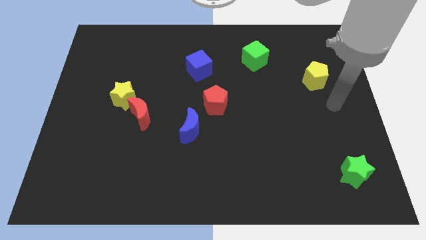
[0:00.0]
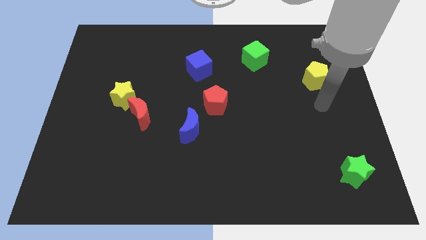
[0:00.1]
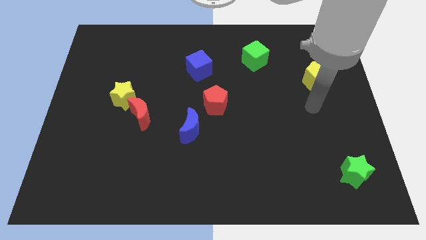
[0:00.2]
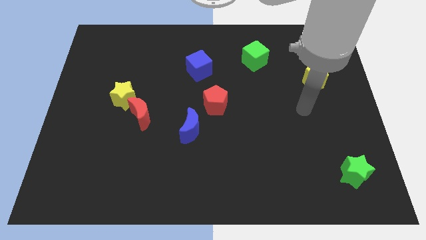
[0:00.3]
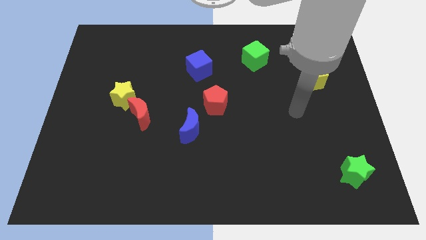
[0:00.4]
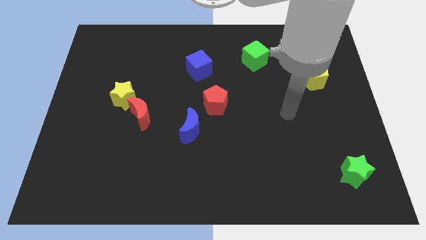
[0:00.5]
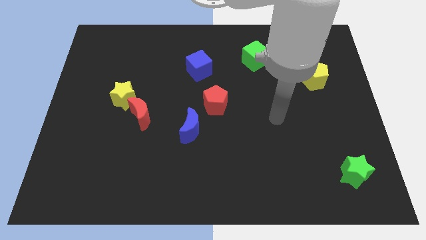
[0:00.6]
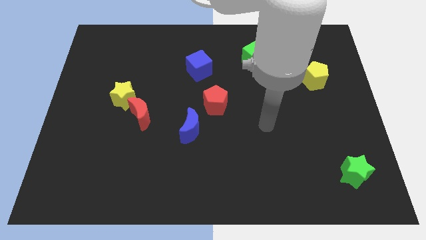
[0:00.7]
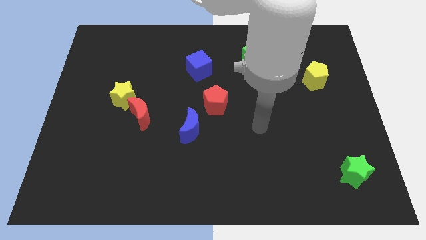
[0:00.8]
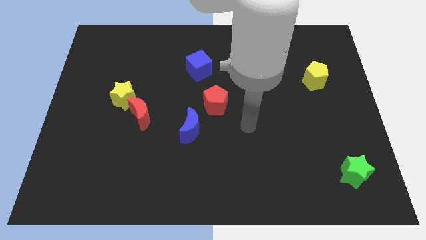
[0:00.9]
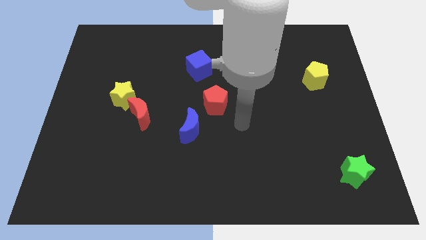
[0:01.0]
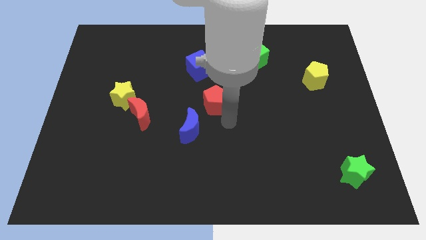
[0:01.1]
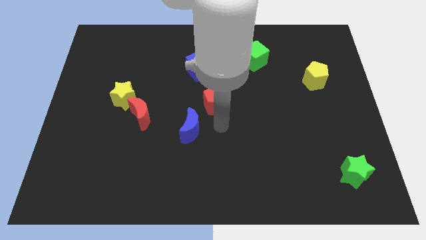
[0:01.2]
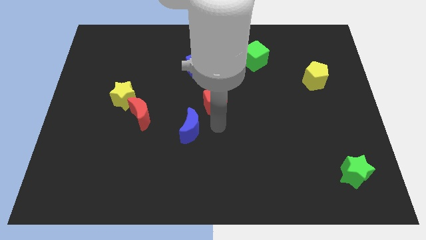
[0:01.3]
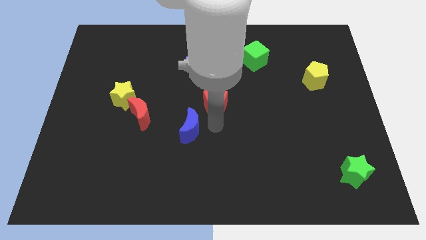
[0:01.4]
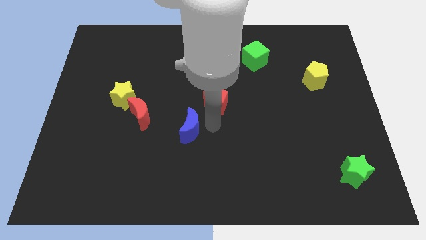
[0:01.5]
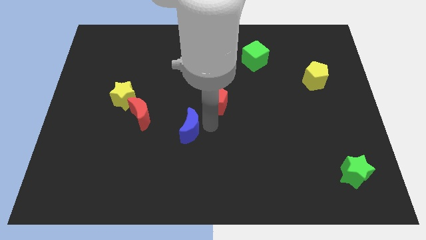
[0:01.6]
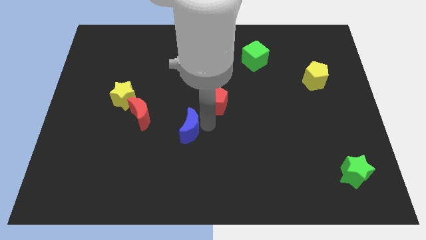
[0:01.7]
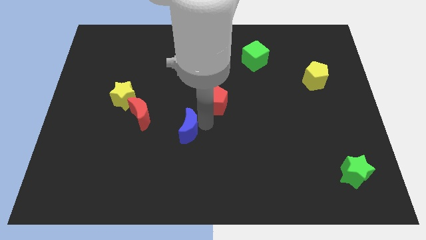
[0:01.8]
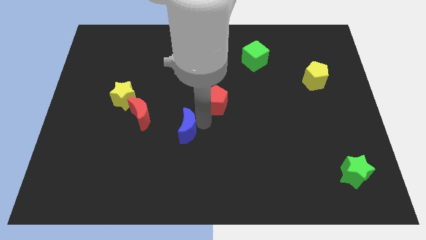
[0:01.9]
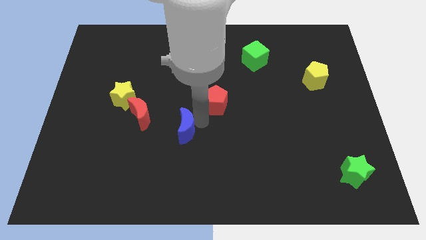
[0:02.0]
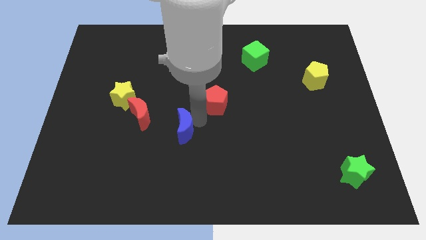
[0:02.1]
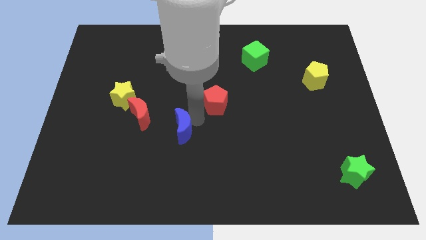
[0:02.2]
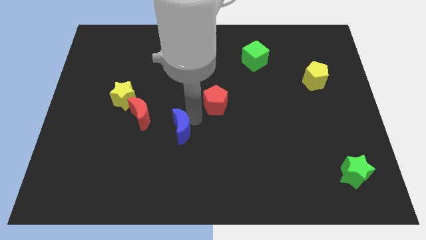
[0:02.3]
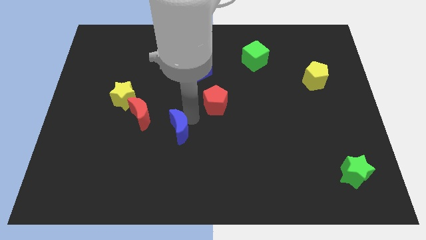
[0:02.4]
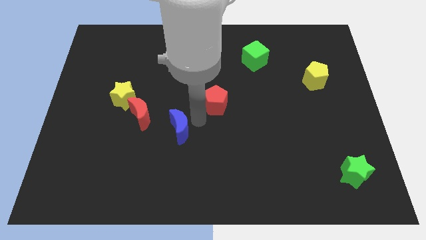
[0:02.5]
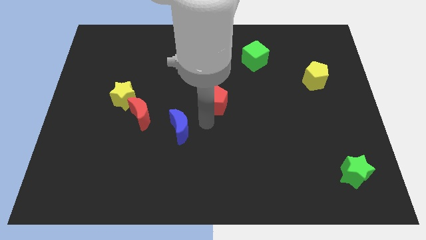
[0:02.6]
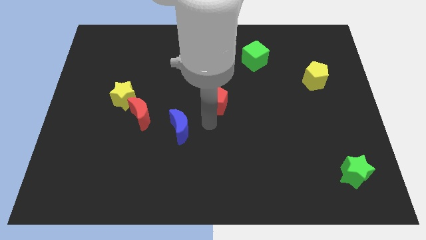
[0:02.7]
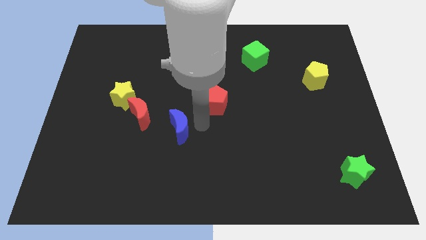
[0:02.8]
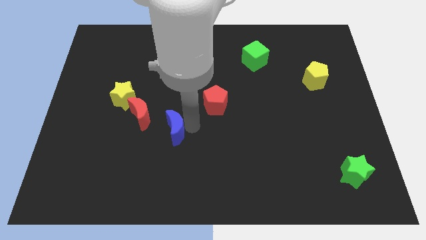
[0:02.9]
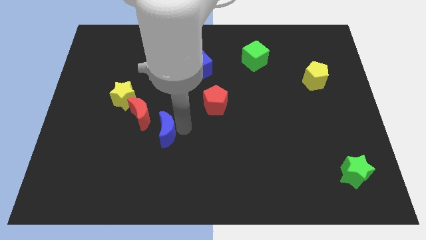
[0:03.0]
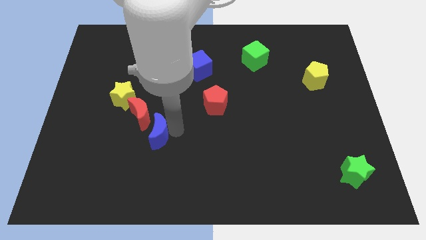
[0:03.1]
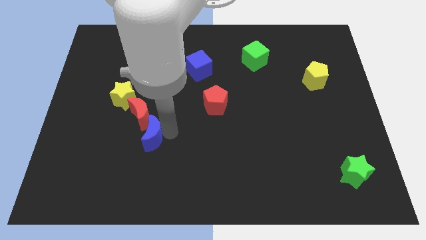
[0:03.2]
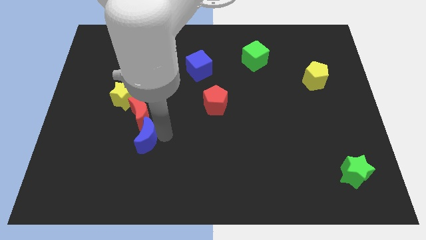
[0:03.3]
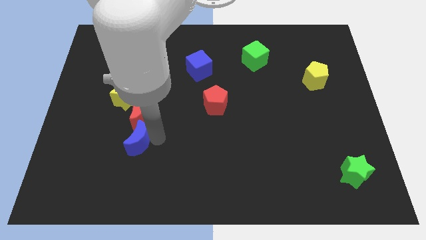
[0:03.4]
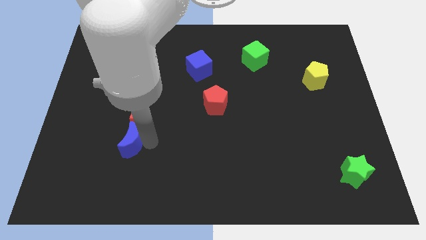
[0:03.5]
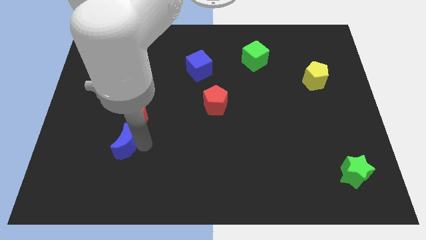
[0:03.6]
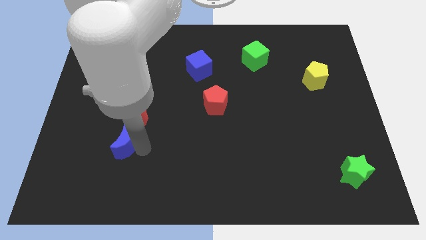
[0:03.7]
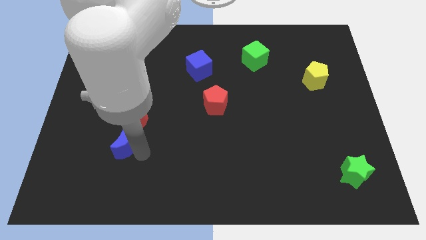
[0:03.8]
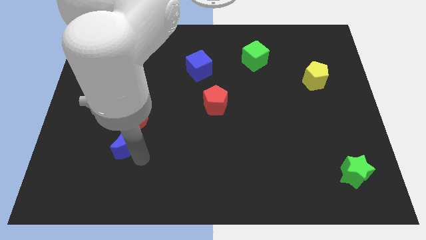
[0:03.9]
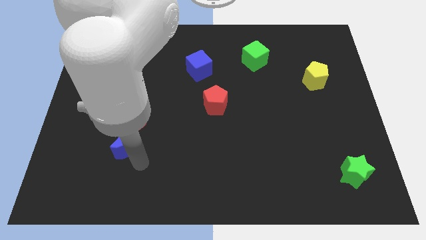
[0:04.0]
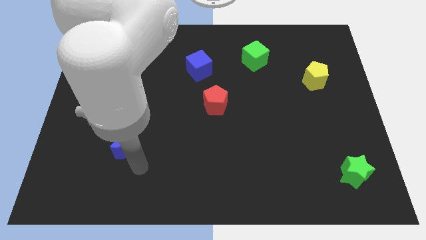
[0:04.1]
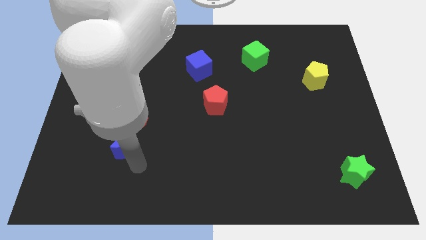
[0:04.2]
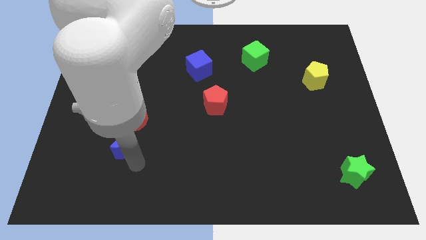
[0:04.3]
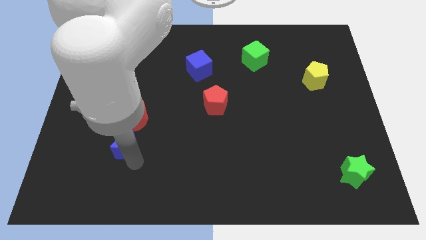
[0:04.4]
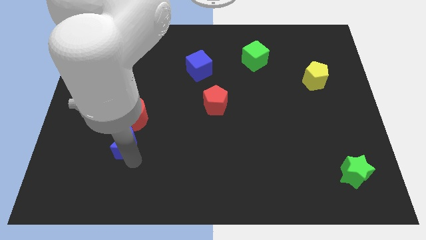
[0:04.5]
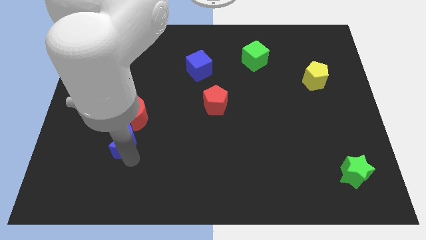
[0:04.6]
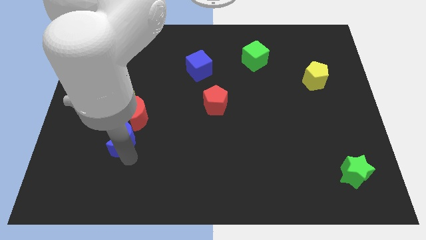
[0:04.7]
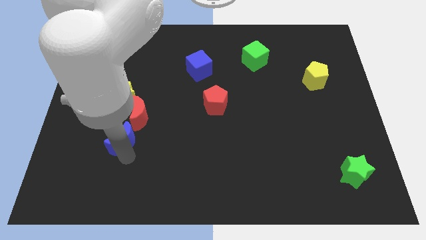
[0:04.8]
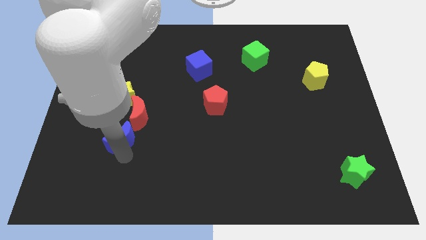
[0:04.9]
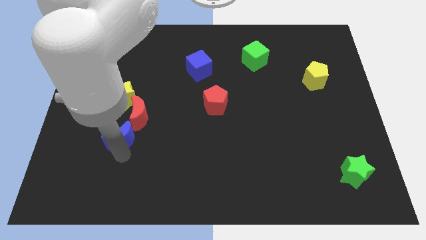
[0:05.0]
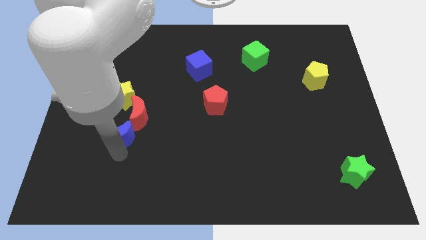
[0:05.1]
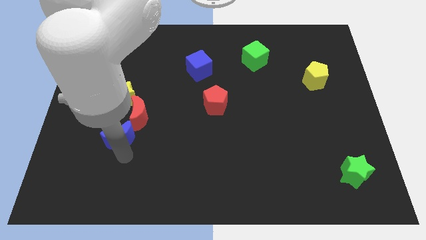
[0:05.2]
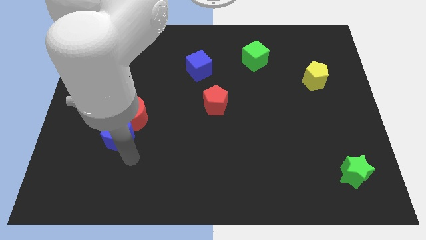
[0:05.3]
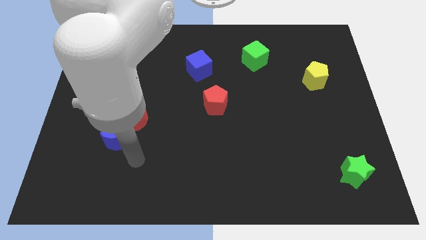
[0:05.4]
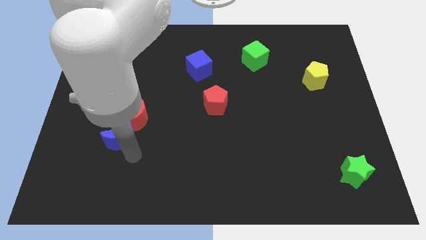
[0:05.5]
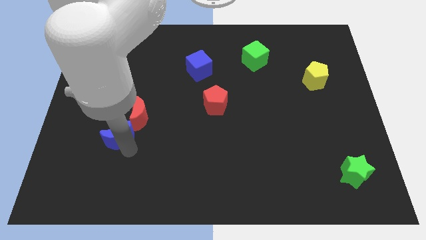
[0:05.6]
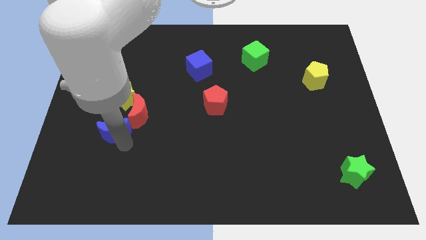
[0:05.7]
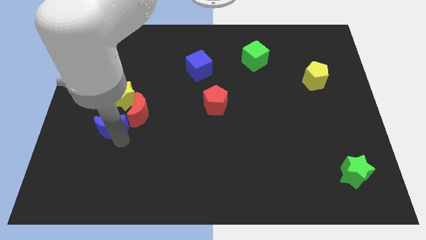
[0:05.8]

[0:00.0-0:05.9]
put the blue moon just left of the red moon

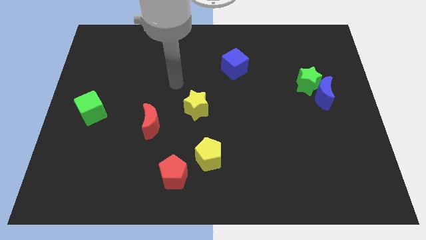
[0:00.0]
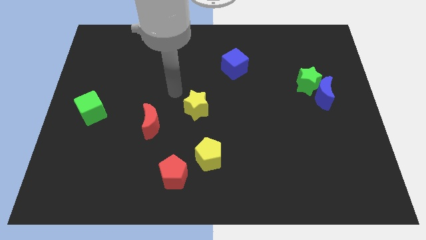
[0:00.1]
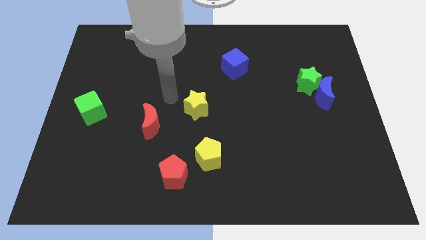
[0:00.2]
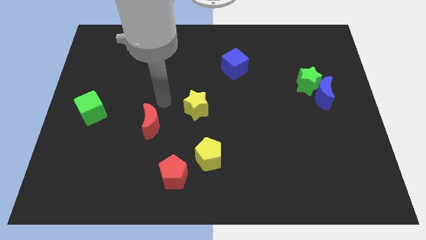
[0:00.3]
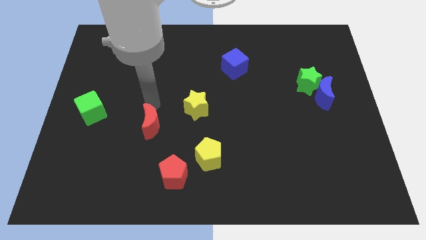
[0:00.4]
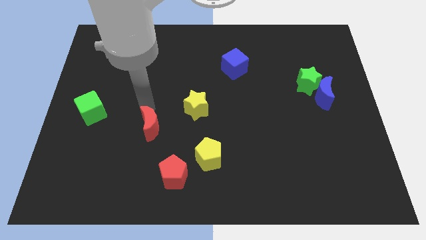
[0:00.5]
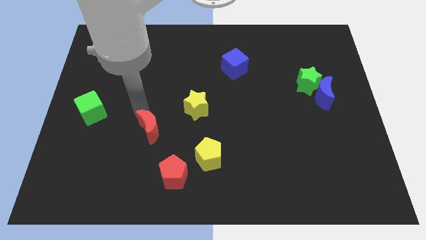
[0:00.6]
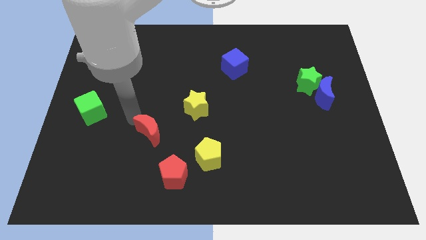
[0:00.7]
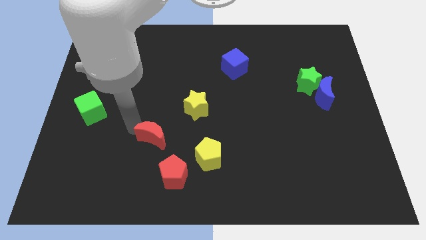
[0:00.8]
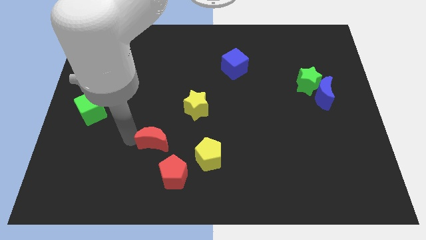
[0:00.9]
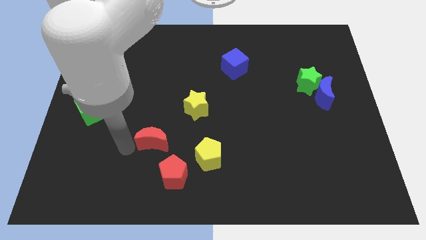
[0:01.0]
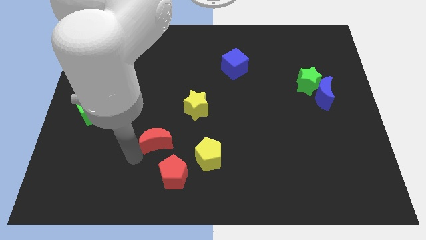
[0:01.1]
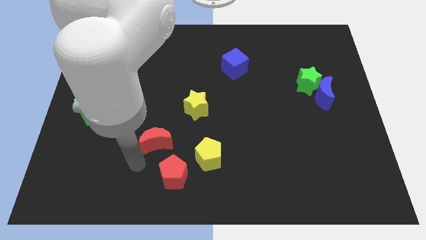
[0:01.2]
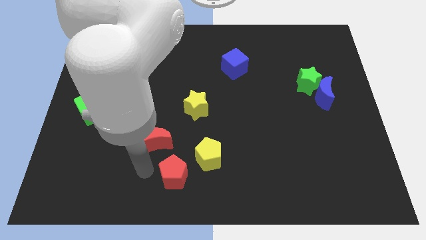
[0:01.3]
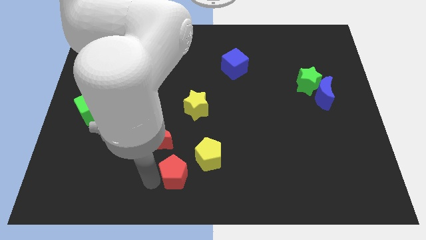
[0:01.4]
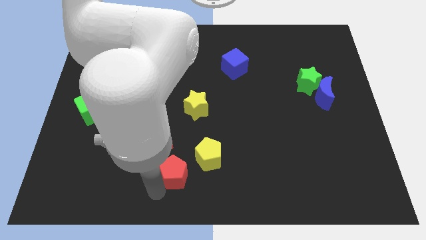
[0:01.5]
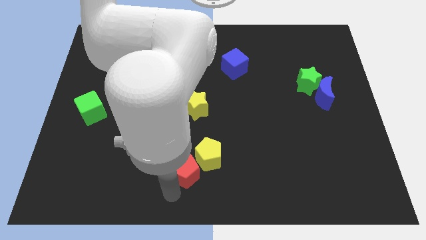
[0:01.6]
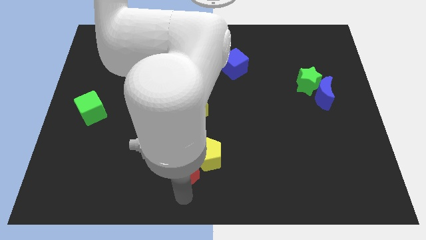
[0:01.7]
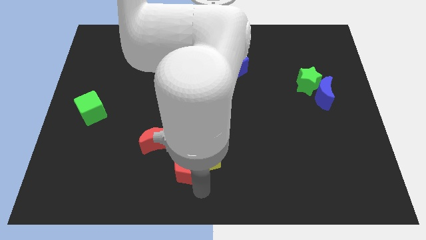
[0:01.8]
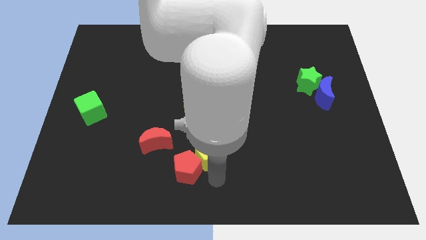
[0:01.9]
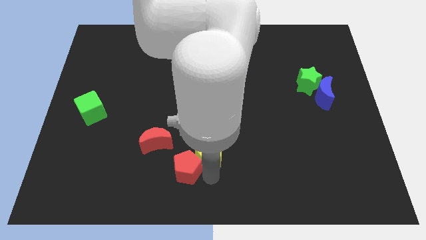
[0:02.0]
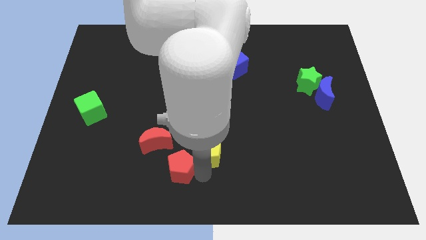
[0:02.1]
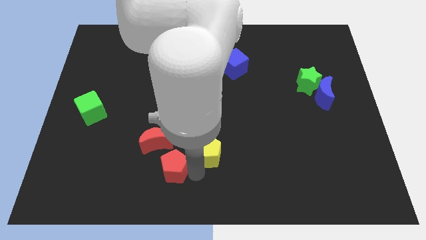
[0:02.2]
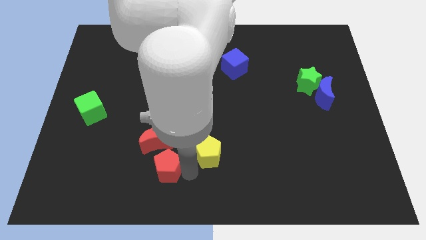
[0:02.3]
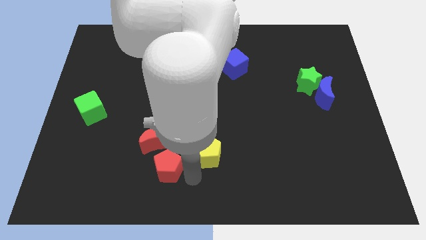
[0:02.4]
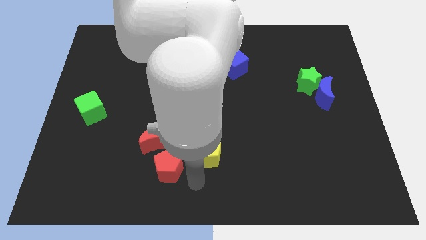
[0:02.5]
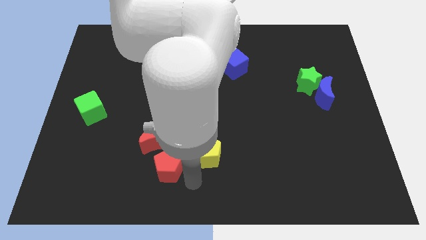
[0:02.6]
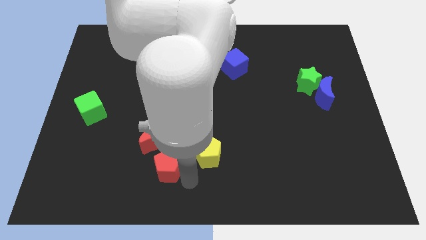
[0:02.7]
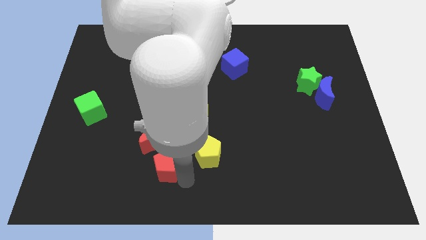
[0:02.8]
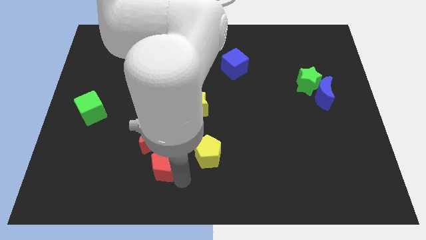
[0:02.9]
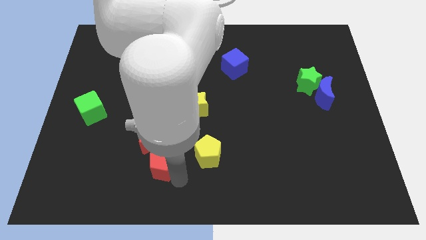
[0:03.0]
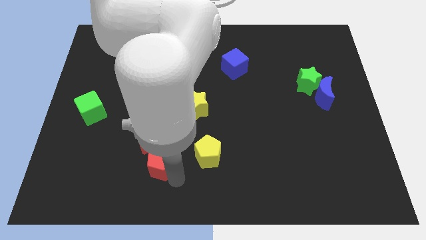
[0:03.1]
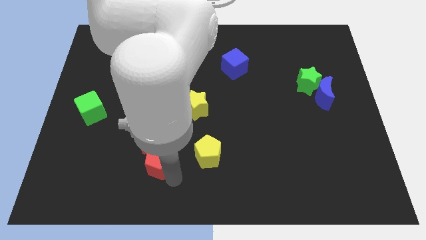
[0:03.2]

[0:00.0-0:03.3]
push the red pentagon diagonally down and to the left of the red moon
